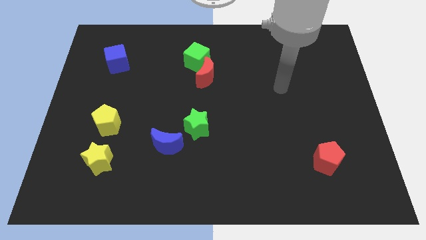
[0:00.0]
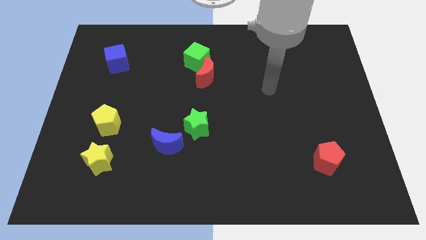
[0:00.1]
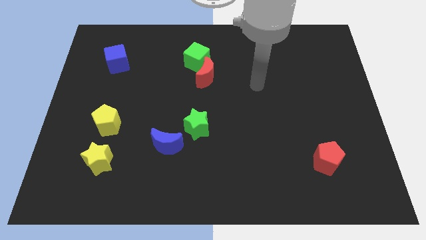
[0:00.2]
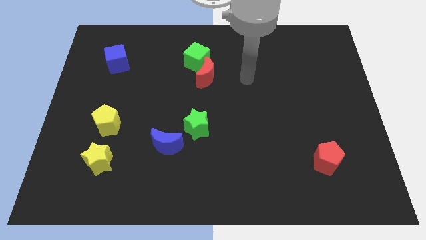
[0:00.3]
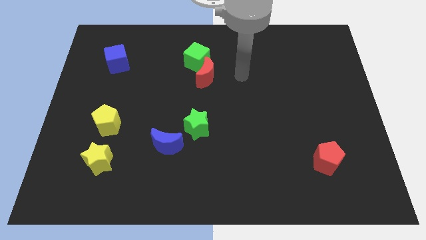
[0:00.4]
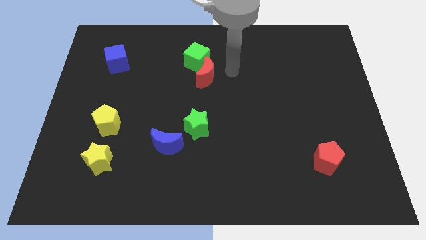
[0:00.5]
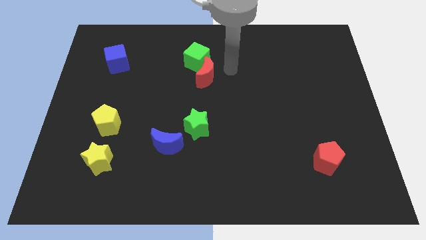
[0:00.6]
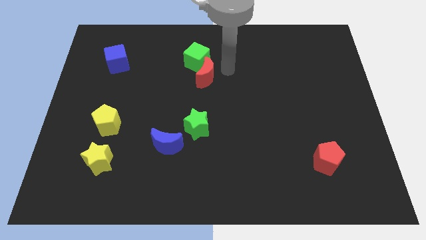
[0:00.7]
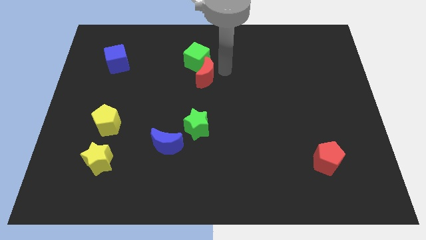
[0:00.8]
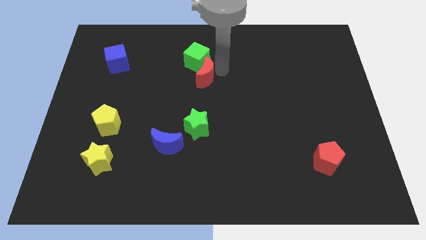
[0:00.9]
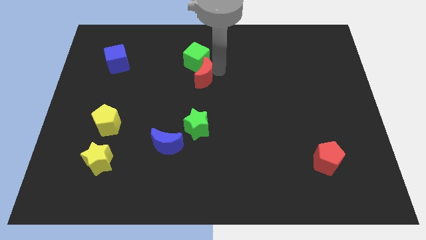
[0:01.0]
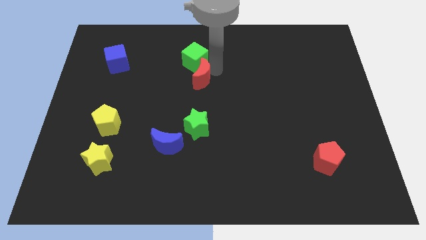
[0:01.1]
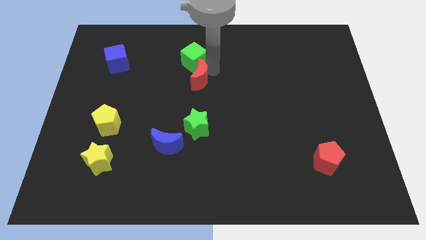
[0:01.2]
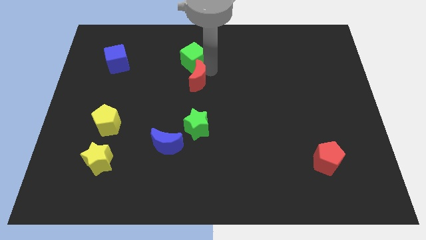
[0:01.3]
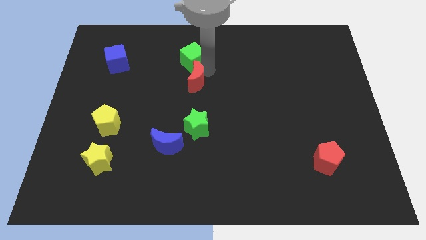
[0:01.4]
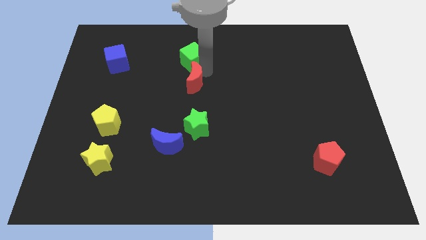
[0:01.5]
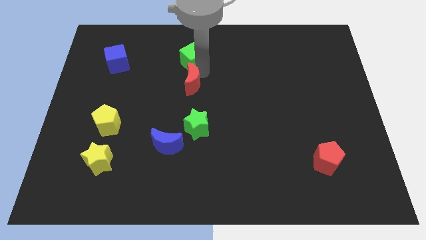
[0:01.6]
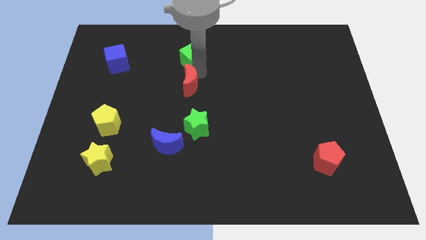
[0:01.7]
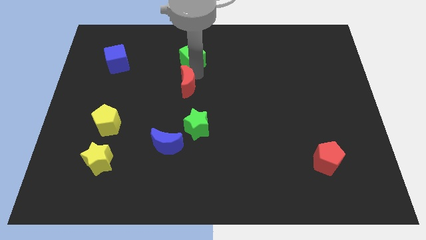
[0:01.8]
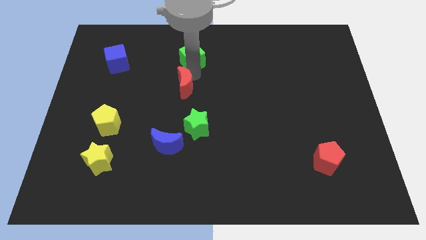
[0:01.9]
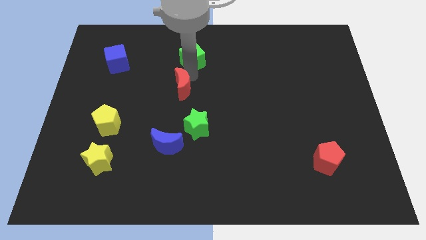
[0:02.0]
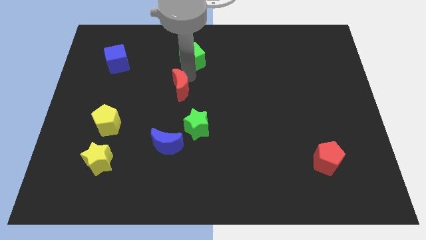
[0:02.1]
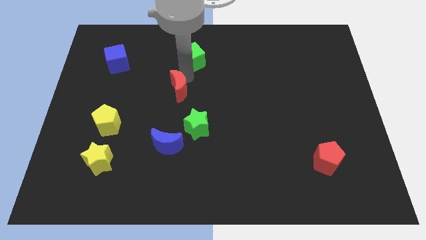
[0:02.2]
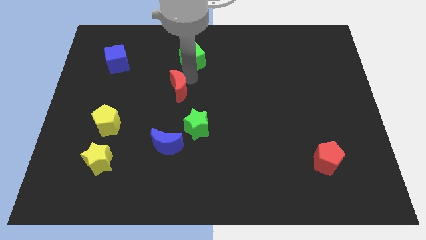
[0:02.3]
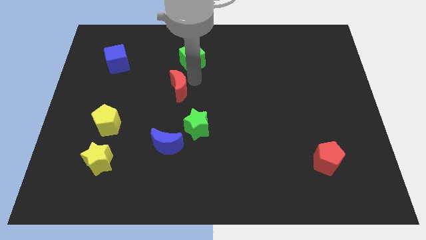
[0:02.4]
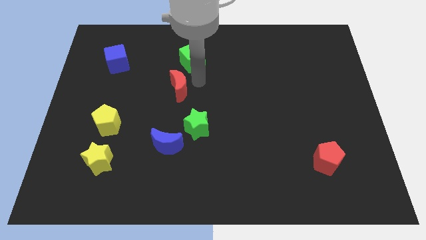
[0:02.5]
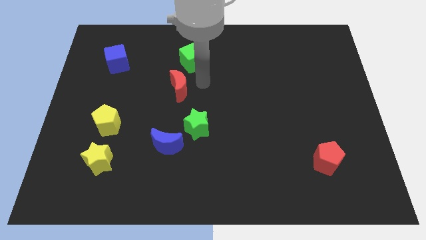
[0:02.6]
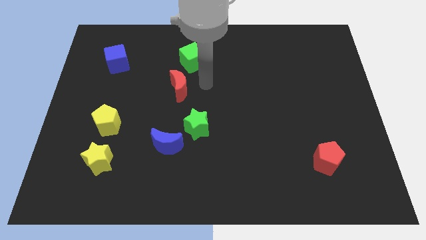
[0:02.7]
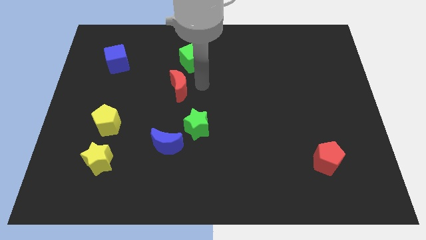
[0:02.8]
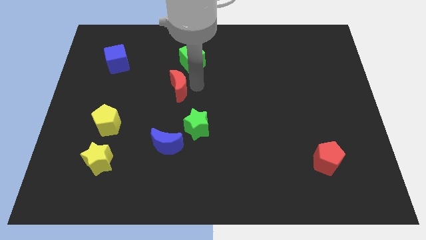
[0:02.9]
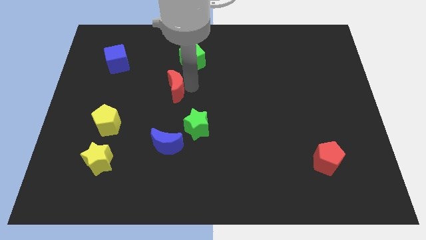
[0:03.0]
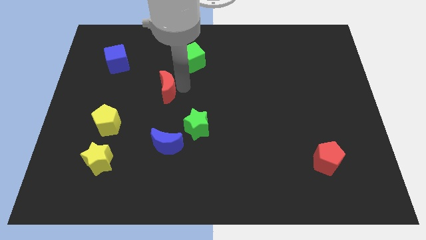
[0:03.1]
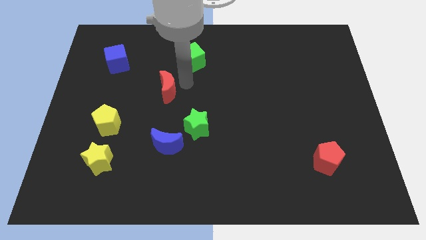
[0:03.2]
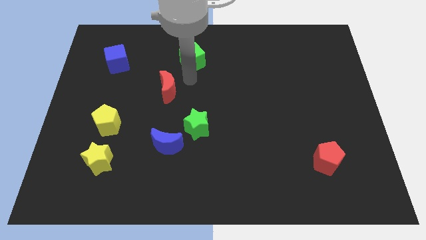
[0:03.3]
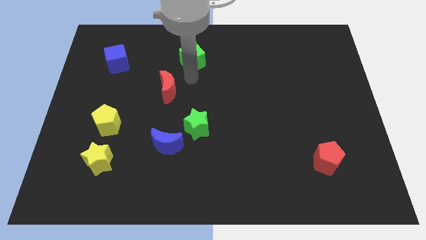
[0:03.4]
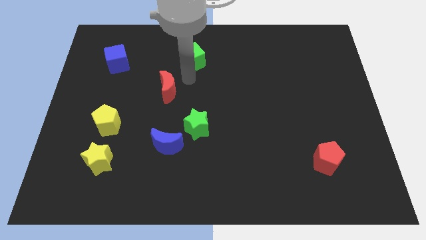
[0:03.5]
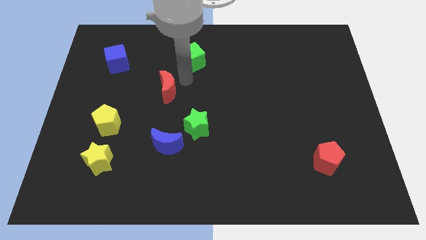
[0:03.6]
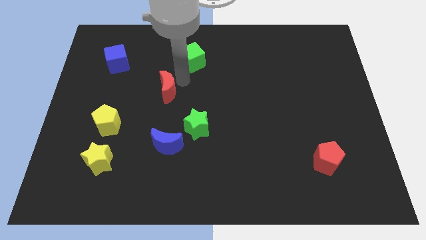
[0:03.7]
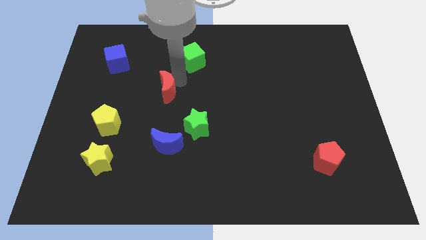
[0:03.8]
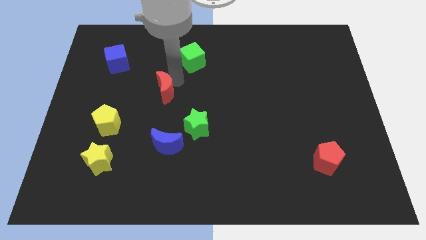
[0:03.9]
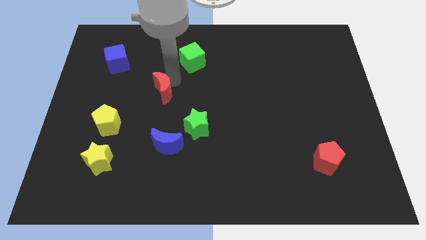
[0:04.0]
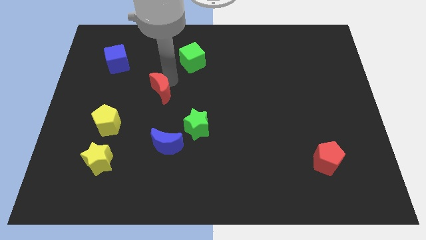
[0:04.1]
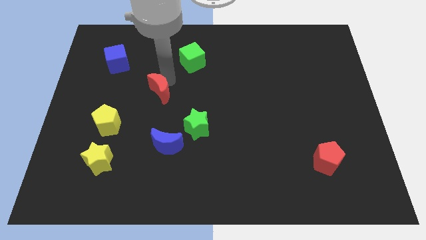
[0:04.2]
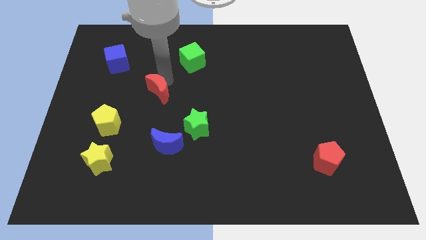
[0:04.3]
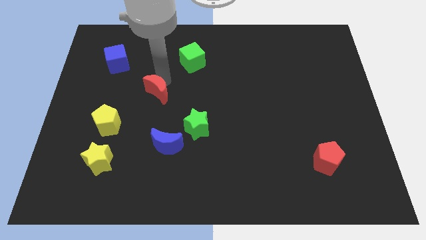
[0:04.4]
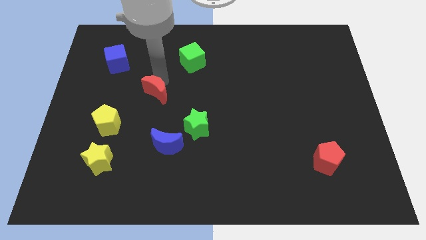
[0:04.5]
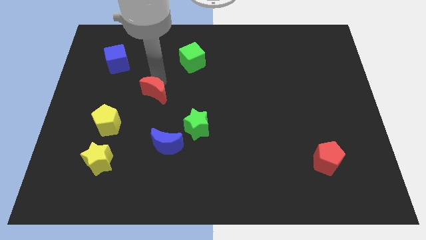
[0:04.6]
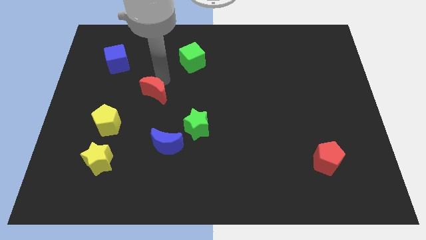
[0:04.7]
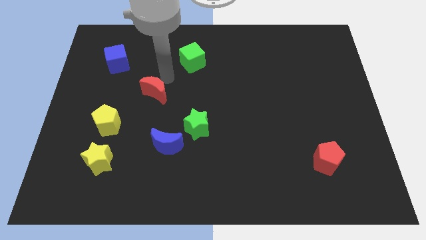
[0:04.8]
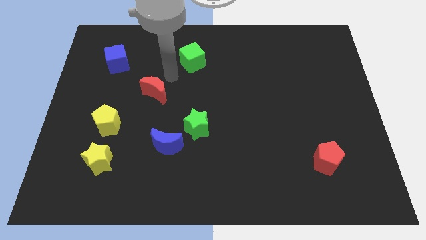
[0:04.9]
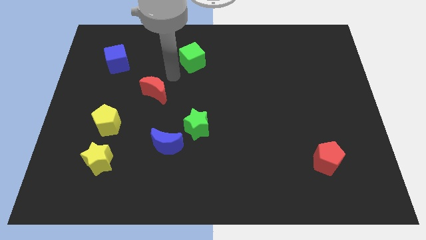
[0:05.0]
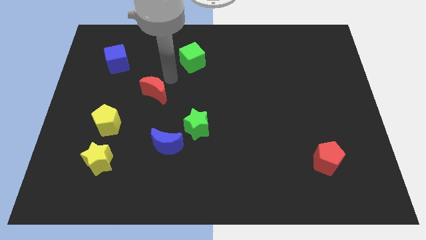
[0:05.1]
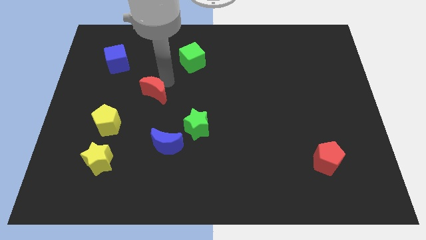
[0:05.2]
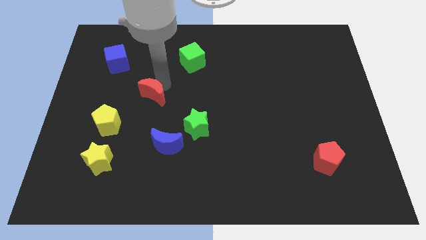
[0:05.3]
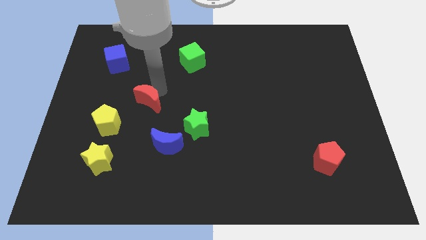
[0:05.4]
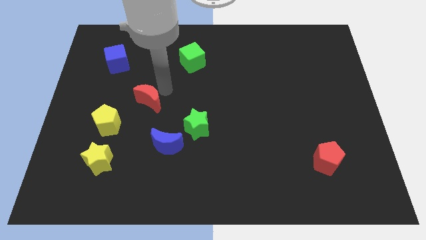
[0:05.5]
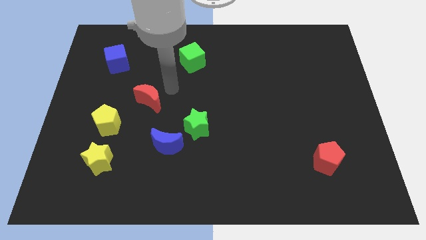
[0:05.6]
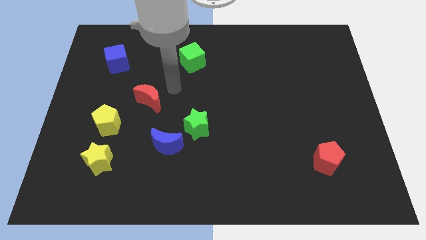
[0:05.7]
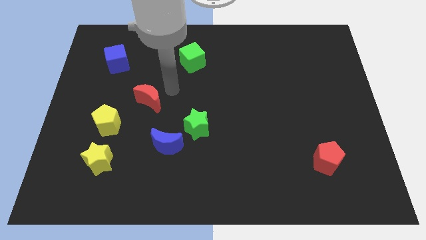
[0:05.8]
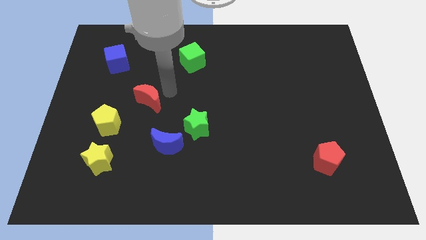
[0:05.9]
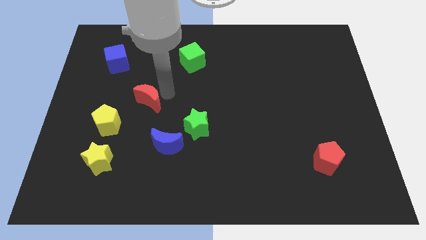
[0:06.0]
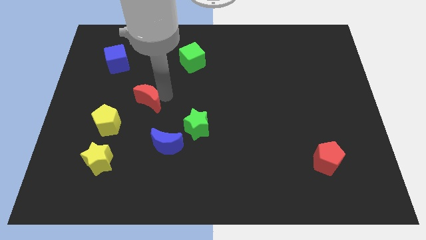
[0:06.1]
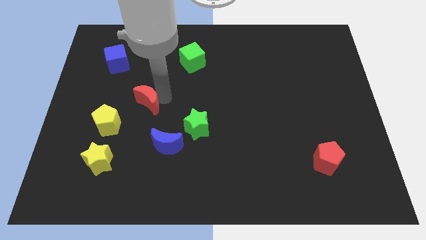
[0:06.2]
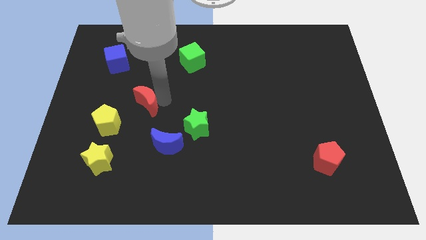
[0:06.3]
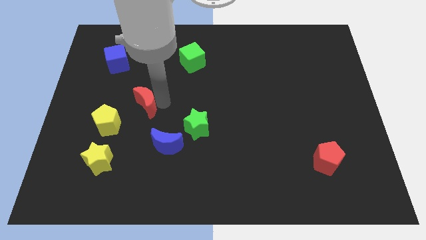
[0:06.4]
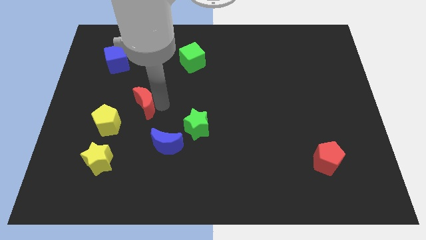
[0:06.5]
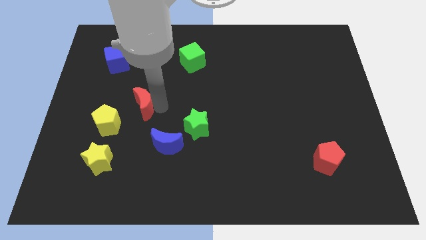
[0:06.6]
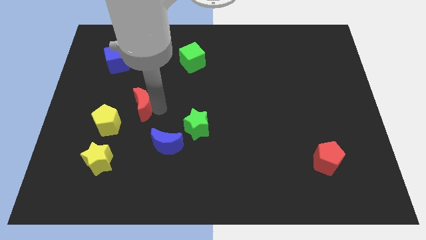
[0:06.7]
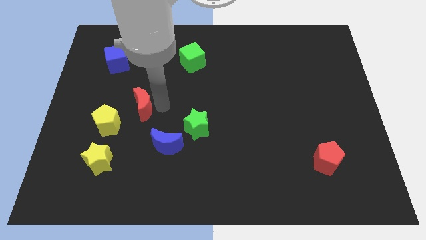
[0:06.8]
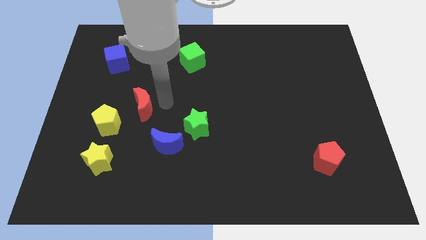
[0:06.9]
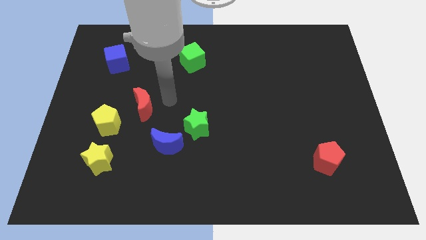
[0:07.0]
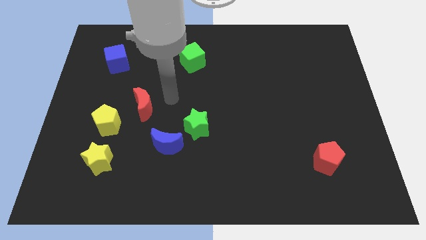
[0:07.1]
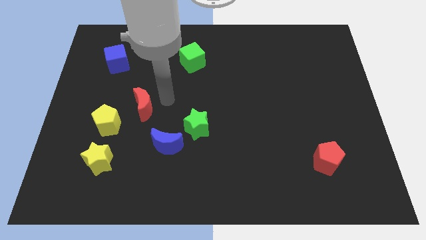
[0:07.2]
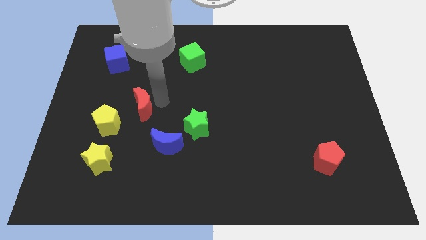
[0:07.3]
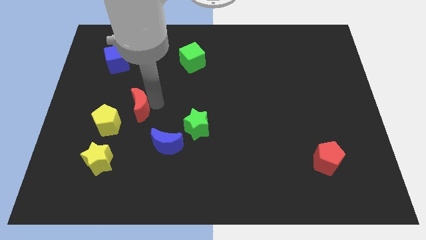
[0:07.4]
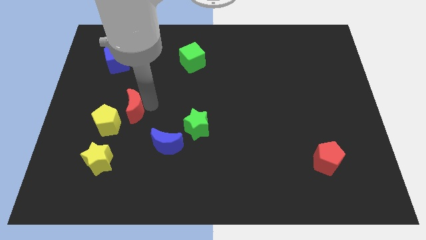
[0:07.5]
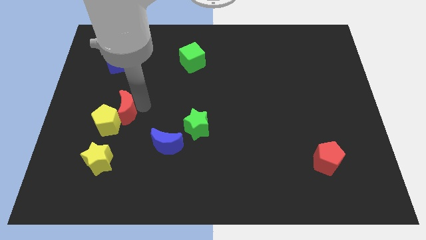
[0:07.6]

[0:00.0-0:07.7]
put the red moon towards the yellow pentagon
